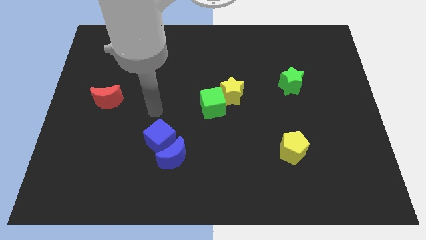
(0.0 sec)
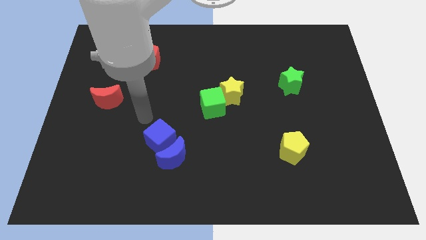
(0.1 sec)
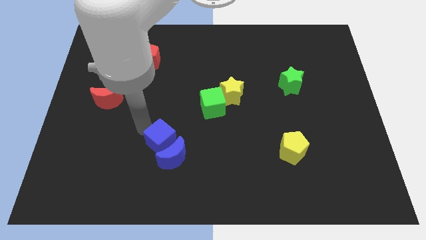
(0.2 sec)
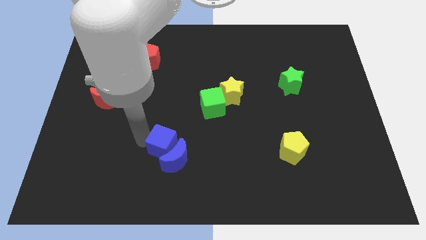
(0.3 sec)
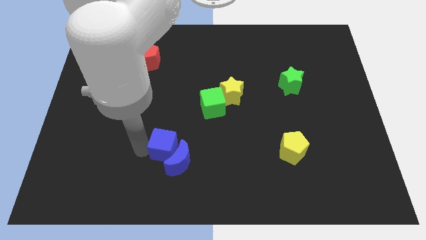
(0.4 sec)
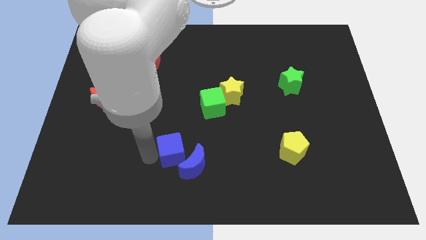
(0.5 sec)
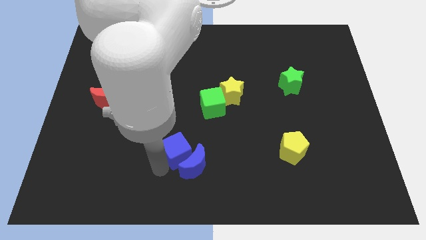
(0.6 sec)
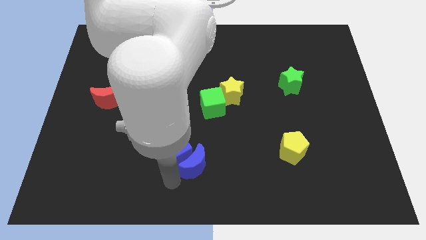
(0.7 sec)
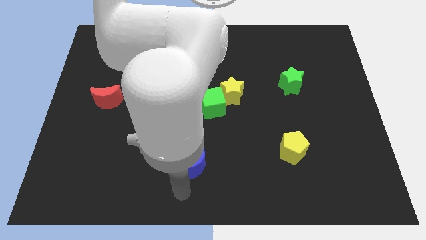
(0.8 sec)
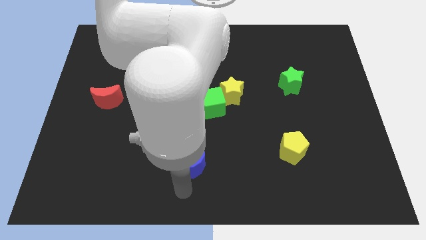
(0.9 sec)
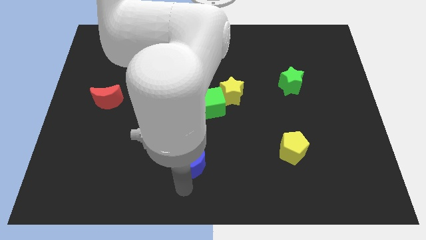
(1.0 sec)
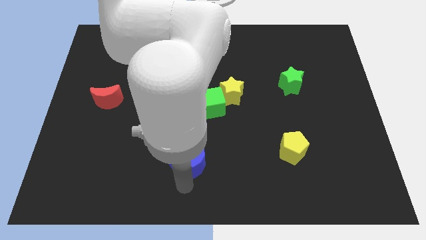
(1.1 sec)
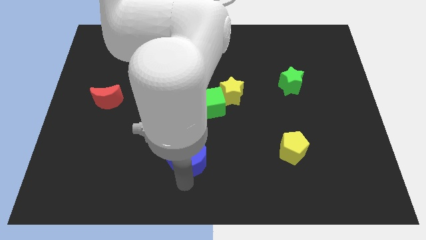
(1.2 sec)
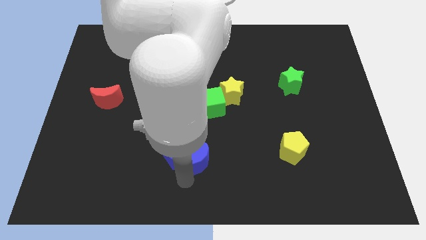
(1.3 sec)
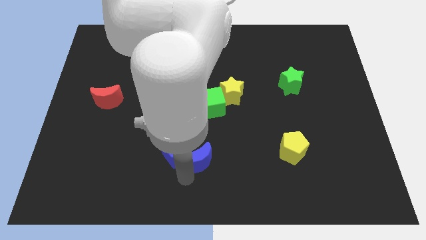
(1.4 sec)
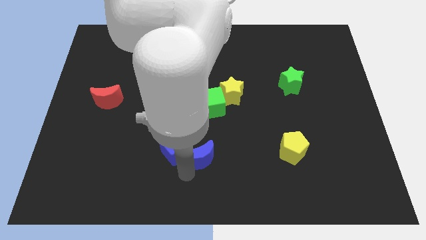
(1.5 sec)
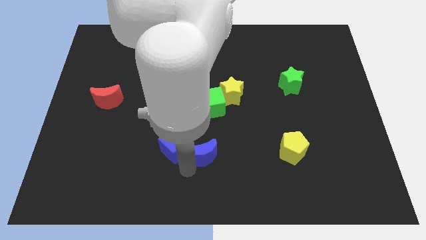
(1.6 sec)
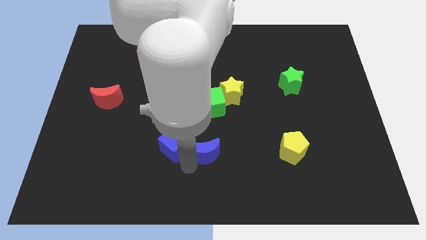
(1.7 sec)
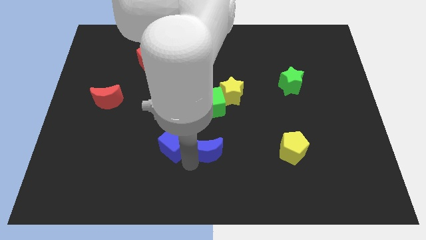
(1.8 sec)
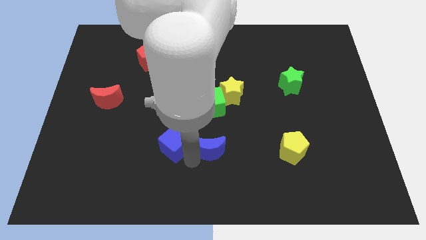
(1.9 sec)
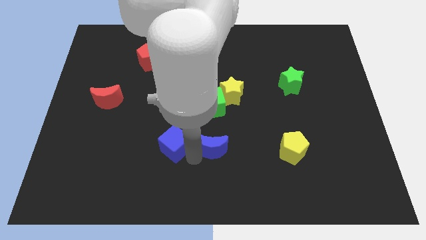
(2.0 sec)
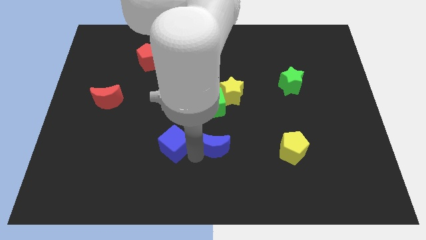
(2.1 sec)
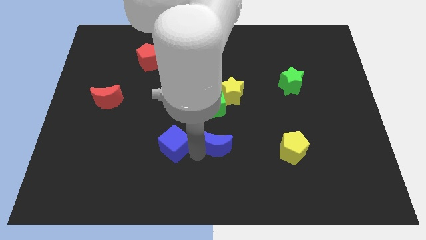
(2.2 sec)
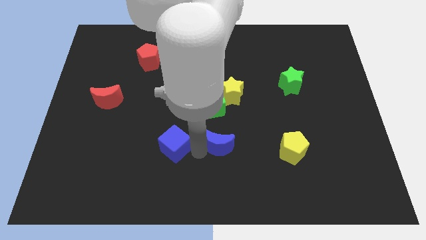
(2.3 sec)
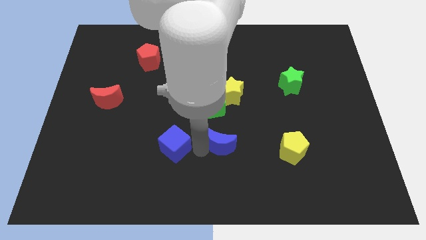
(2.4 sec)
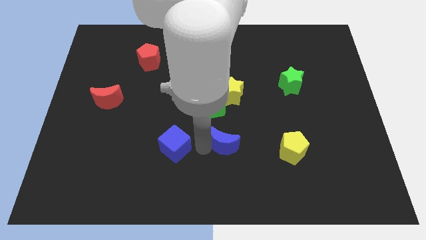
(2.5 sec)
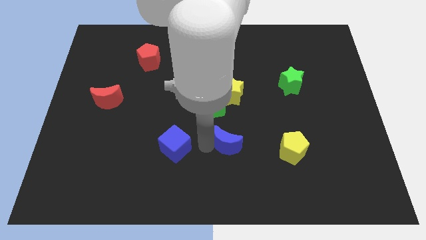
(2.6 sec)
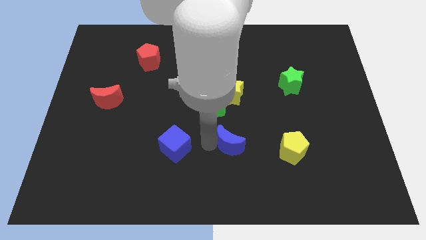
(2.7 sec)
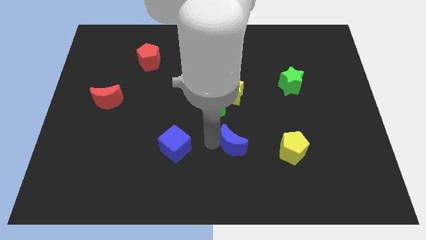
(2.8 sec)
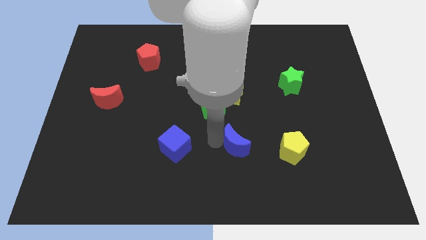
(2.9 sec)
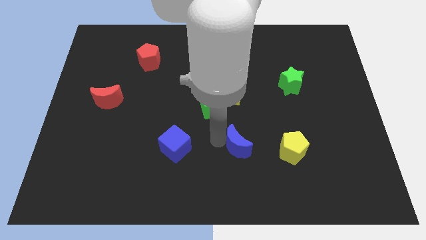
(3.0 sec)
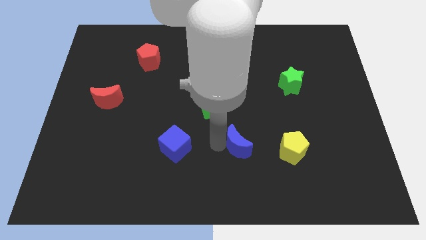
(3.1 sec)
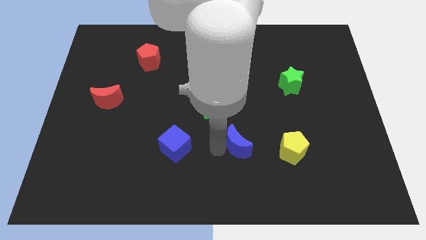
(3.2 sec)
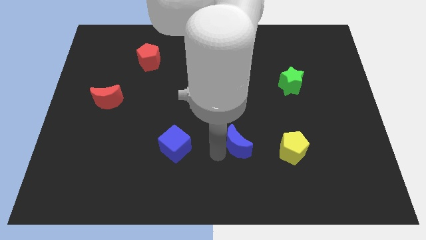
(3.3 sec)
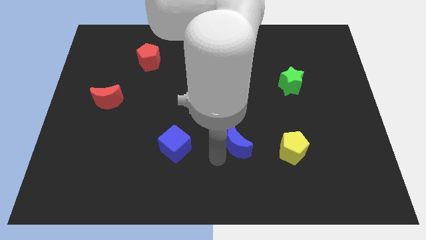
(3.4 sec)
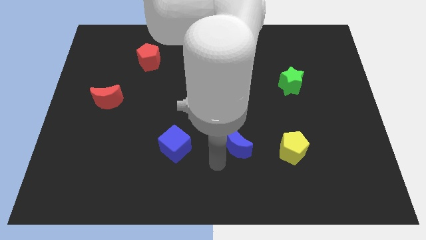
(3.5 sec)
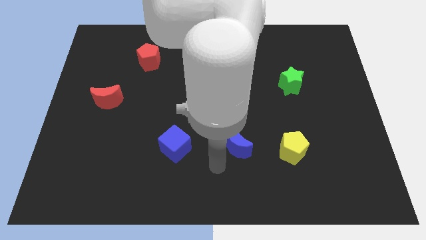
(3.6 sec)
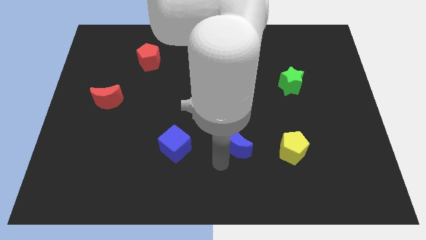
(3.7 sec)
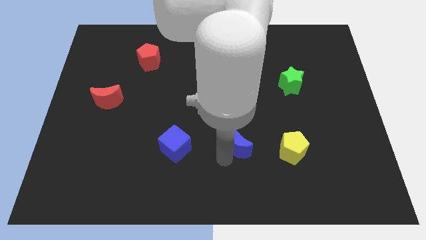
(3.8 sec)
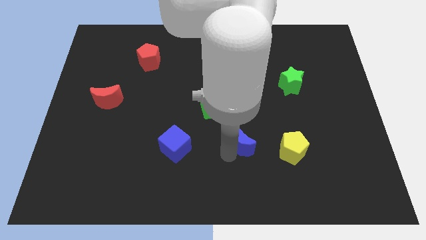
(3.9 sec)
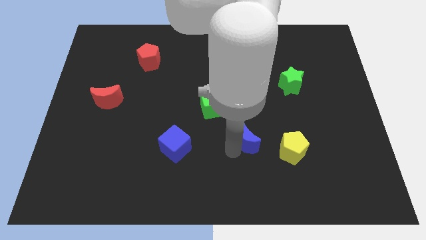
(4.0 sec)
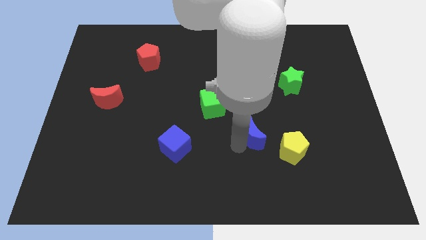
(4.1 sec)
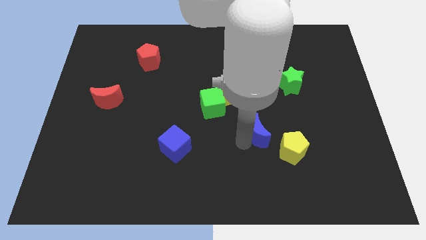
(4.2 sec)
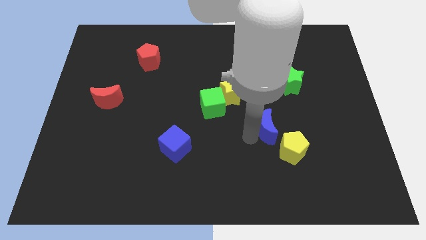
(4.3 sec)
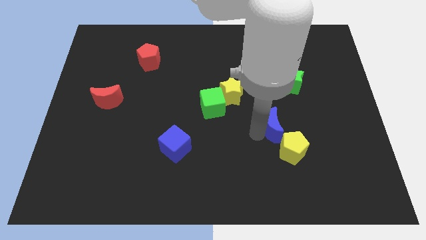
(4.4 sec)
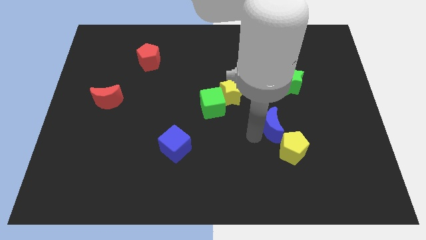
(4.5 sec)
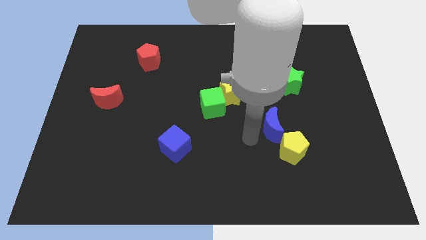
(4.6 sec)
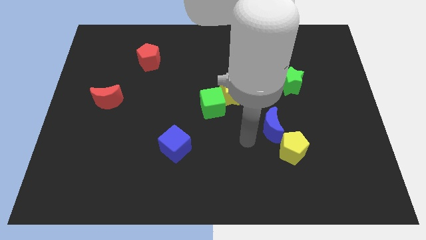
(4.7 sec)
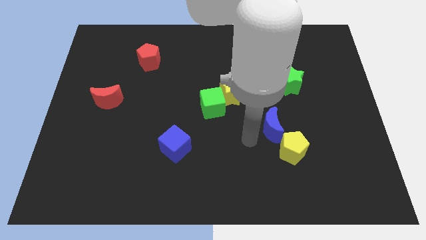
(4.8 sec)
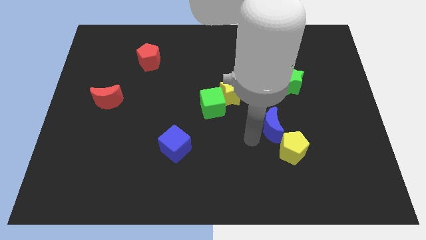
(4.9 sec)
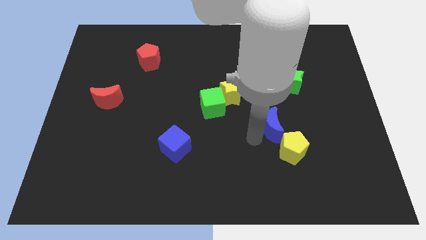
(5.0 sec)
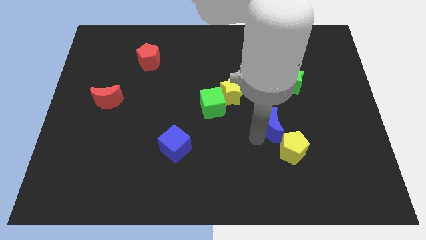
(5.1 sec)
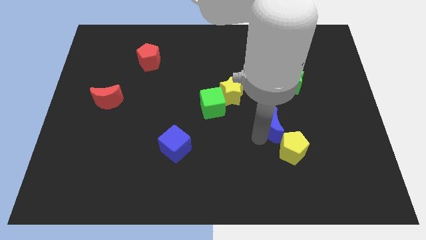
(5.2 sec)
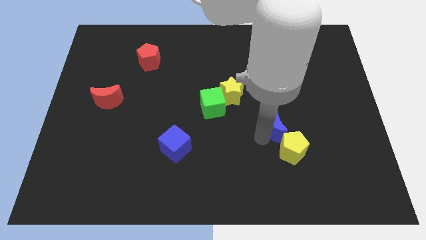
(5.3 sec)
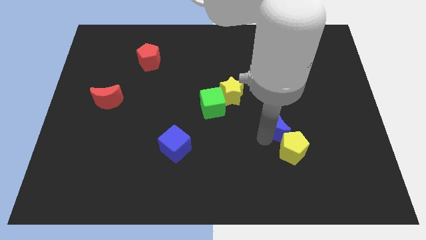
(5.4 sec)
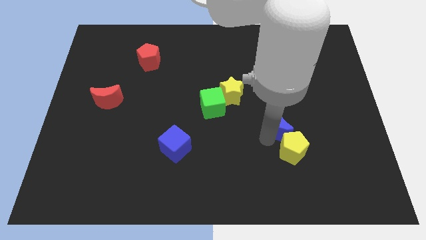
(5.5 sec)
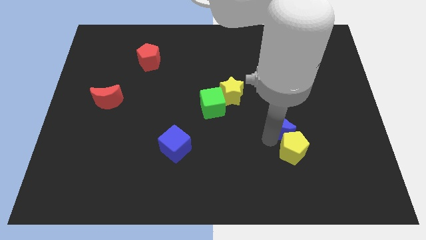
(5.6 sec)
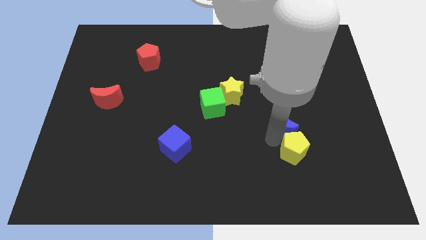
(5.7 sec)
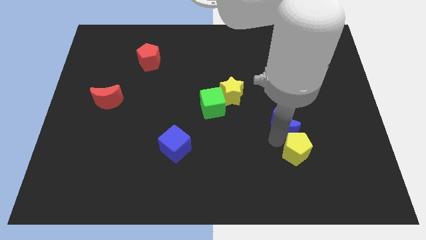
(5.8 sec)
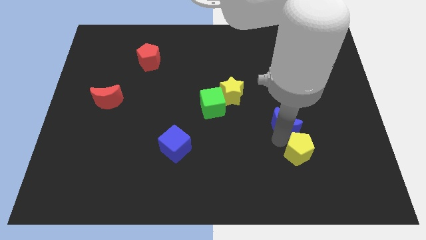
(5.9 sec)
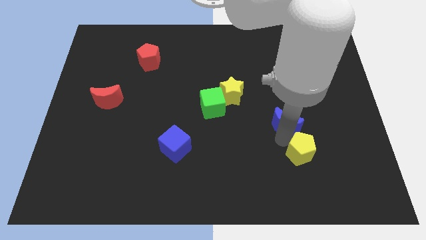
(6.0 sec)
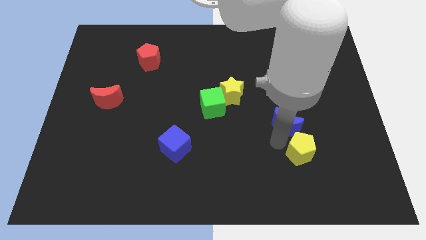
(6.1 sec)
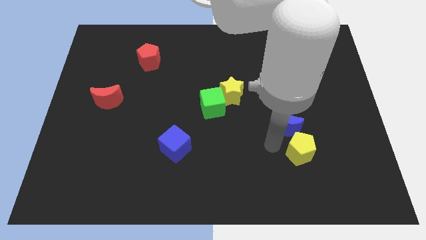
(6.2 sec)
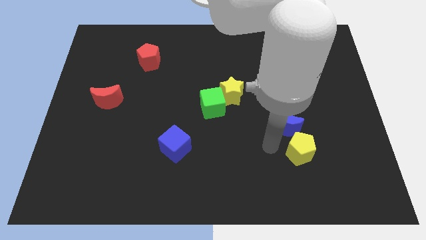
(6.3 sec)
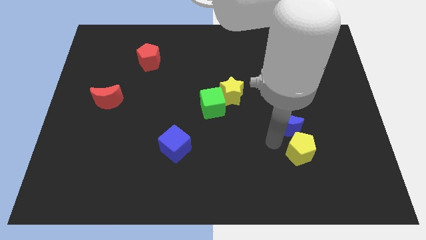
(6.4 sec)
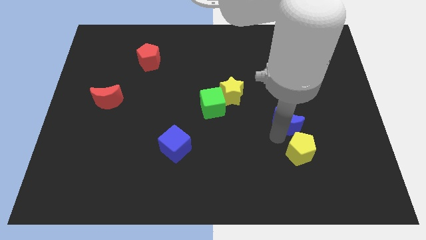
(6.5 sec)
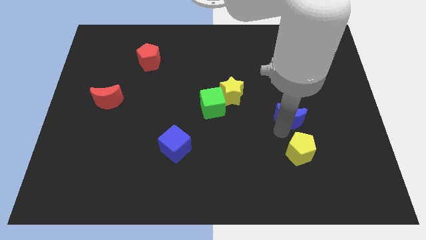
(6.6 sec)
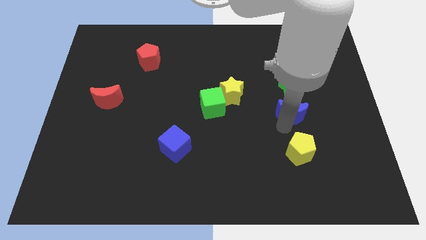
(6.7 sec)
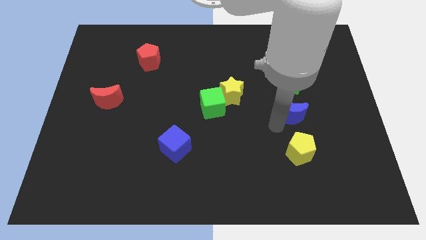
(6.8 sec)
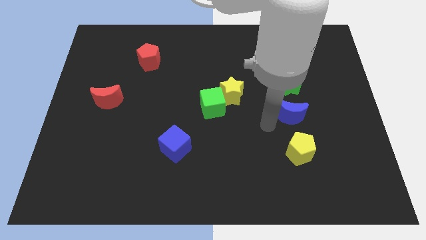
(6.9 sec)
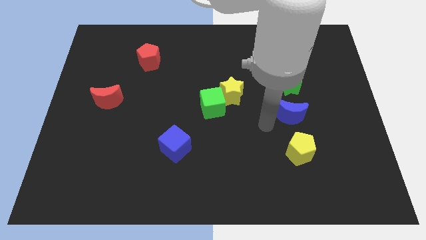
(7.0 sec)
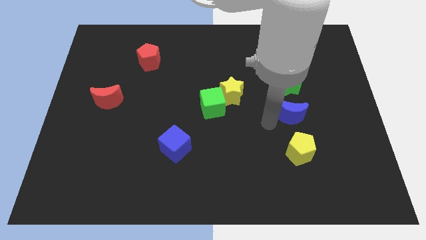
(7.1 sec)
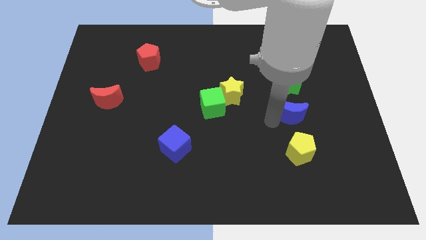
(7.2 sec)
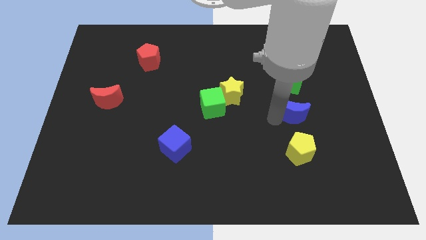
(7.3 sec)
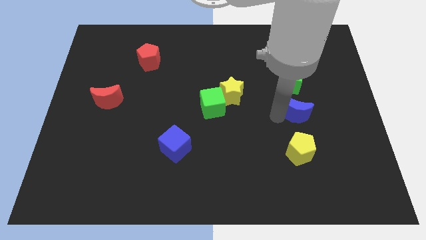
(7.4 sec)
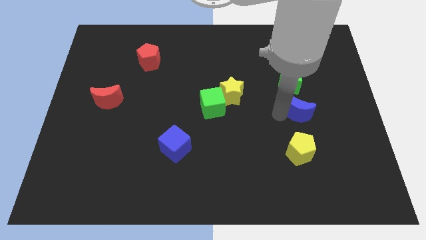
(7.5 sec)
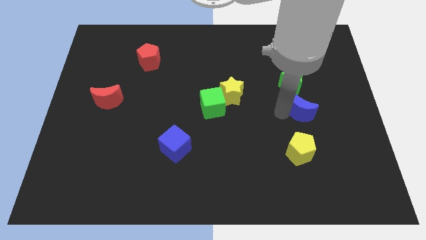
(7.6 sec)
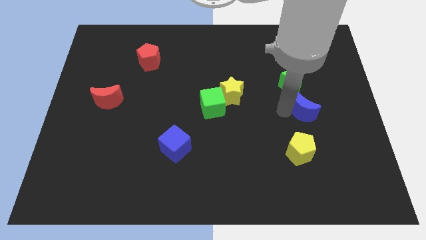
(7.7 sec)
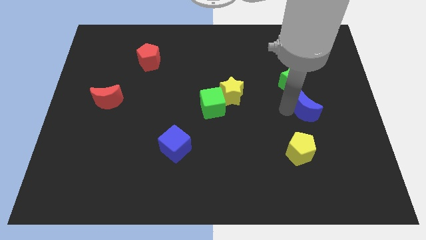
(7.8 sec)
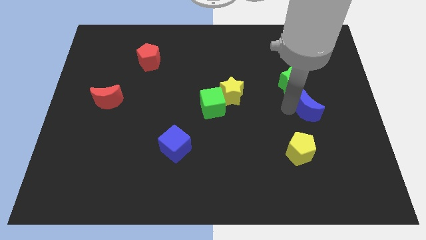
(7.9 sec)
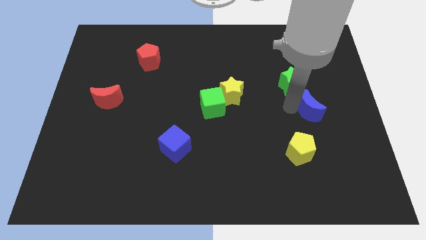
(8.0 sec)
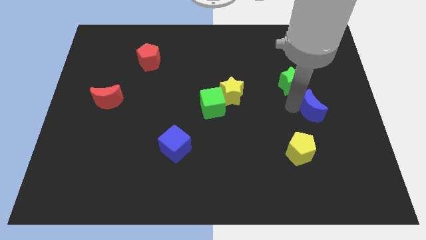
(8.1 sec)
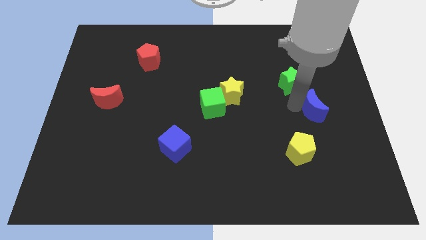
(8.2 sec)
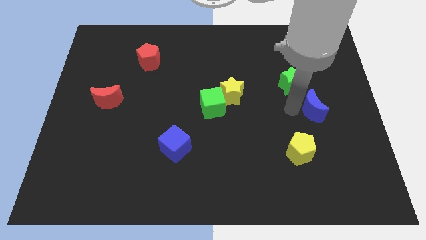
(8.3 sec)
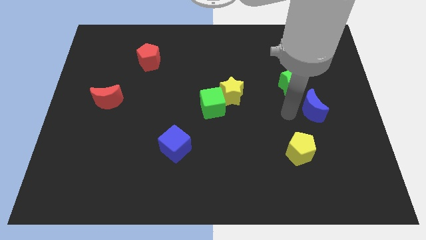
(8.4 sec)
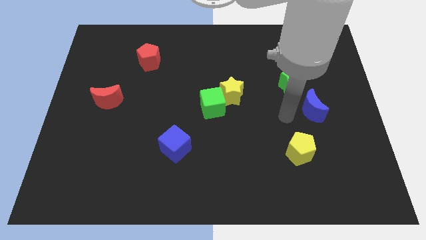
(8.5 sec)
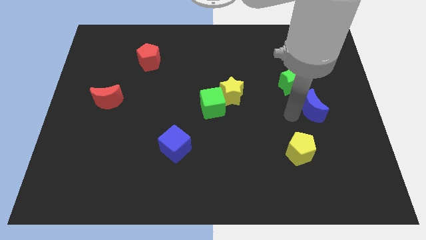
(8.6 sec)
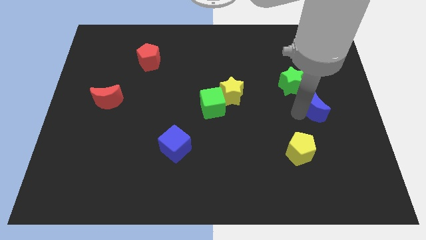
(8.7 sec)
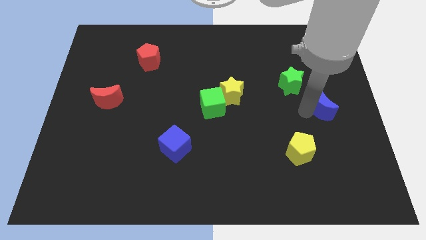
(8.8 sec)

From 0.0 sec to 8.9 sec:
push the blue moon to the right side of the board
